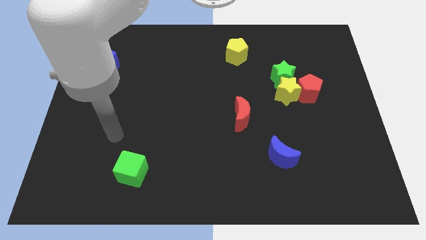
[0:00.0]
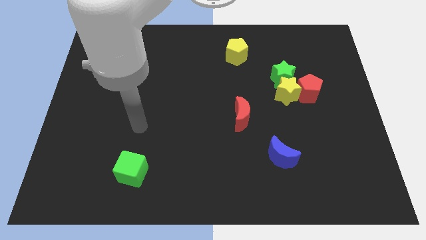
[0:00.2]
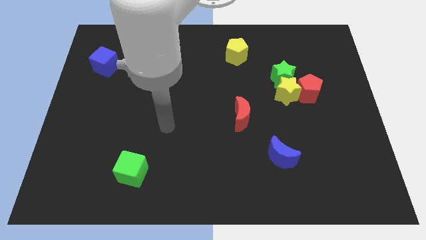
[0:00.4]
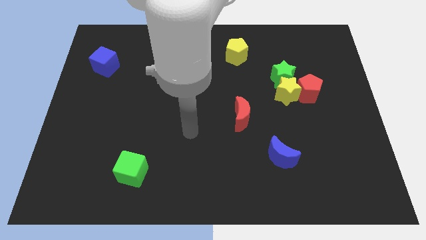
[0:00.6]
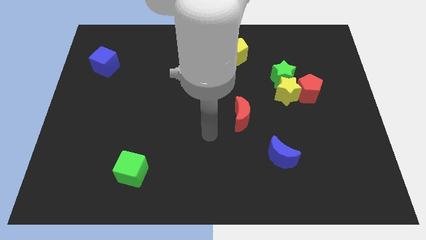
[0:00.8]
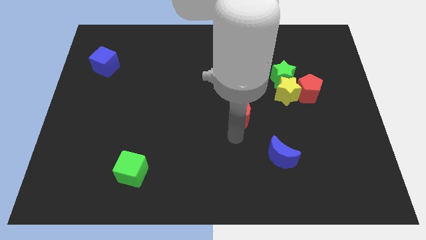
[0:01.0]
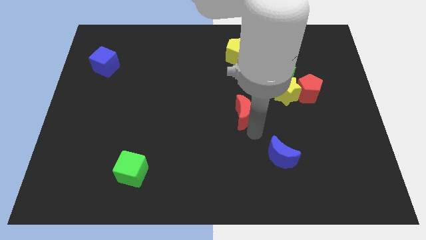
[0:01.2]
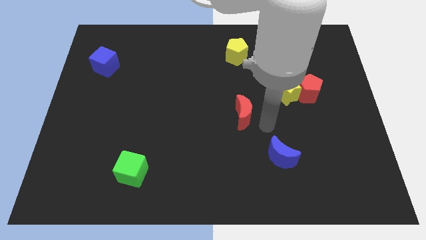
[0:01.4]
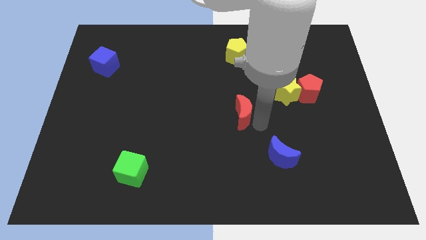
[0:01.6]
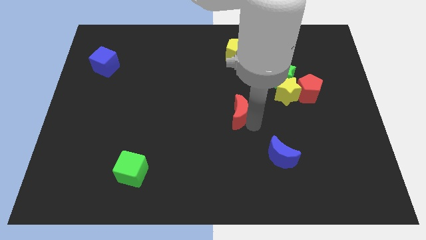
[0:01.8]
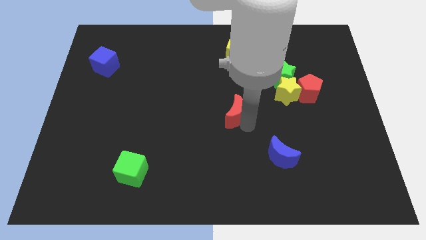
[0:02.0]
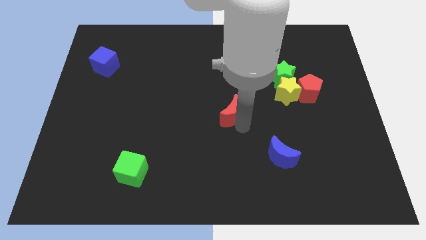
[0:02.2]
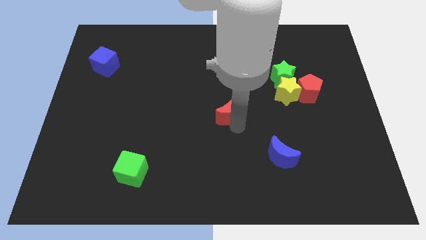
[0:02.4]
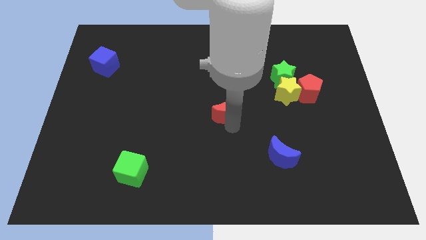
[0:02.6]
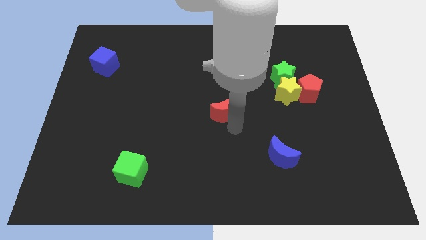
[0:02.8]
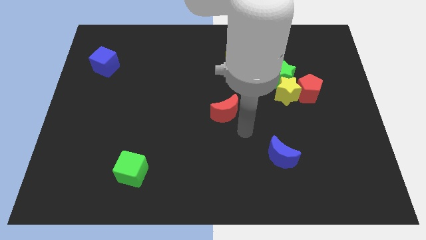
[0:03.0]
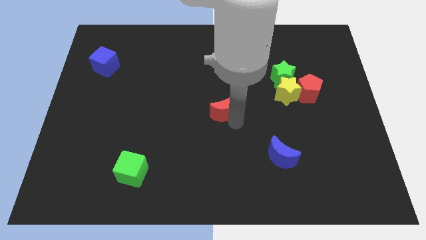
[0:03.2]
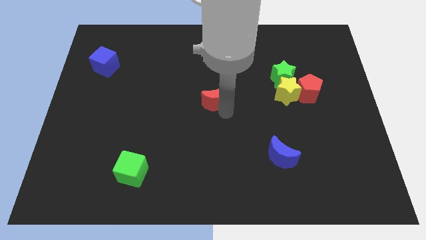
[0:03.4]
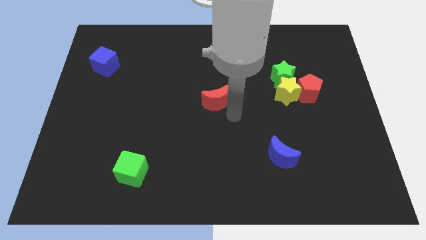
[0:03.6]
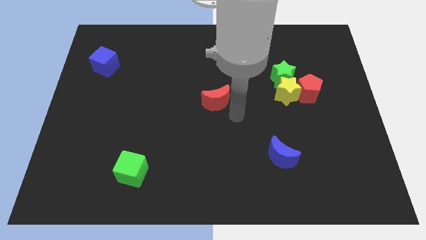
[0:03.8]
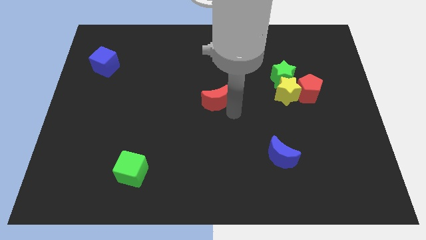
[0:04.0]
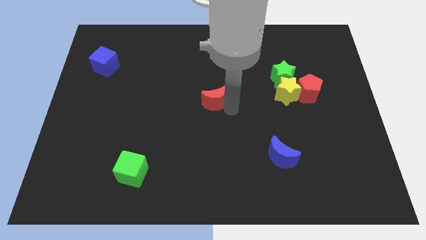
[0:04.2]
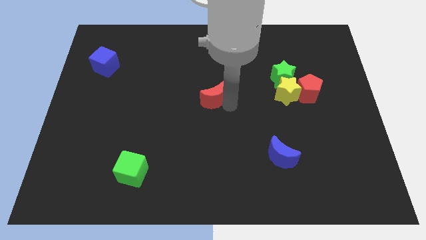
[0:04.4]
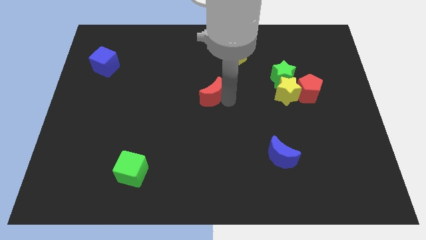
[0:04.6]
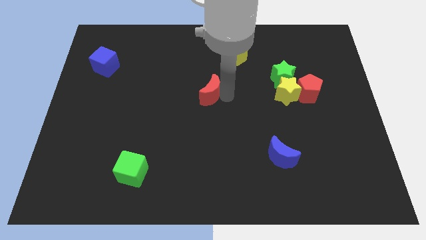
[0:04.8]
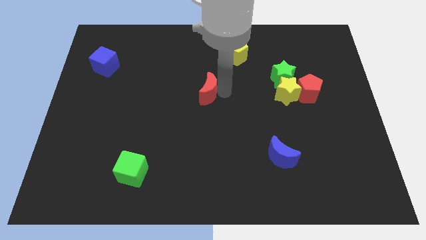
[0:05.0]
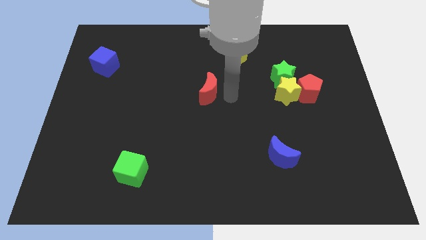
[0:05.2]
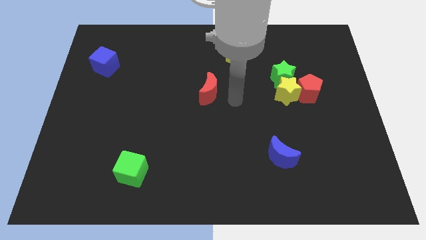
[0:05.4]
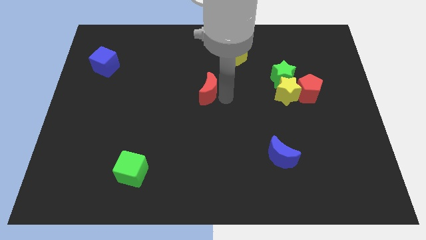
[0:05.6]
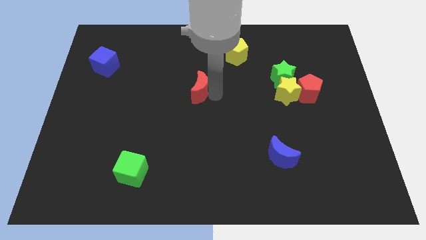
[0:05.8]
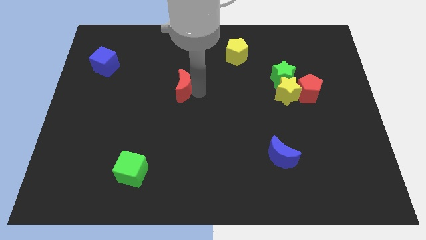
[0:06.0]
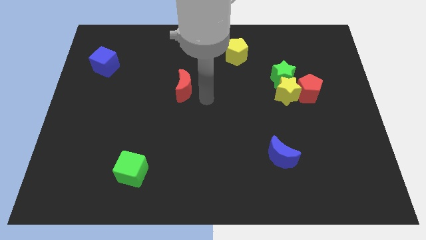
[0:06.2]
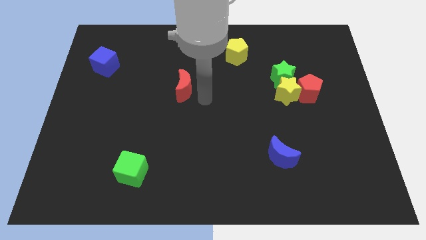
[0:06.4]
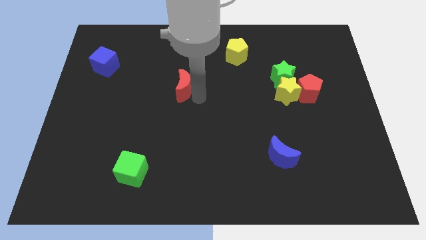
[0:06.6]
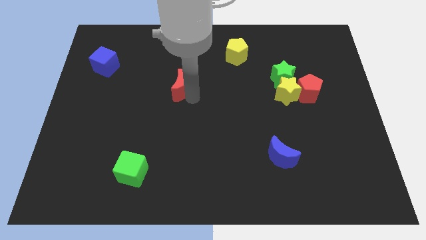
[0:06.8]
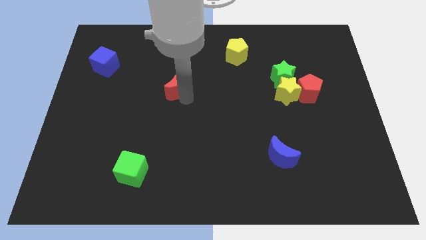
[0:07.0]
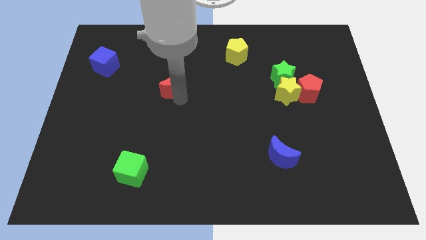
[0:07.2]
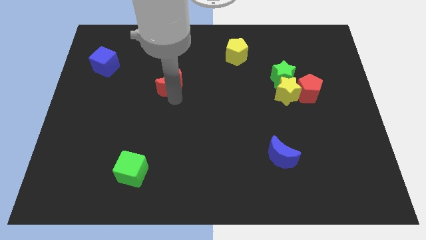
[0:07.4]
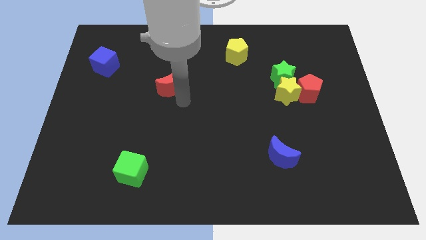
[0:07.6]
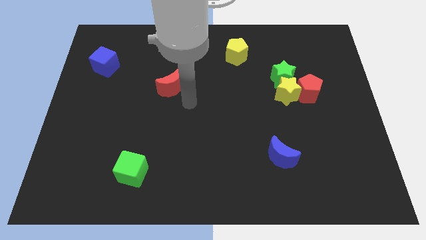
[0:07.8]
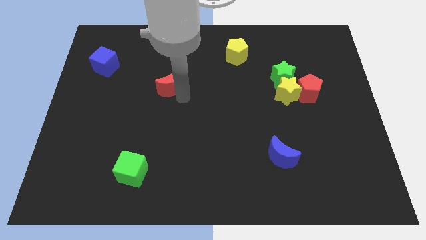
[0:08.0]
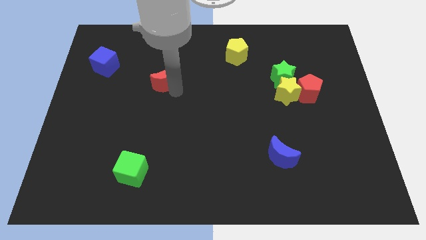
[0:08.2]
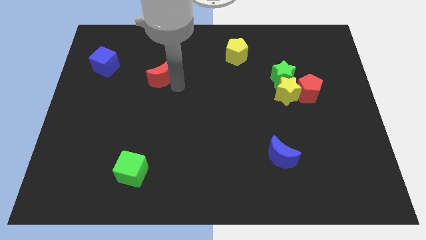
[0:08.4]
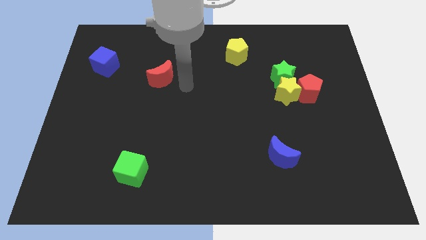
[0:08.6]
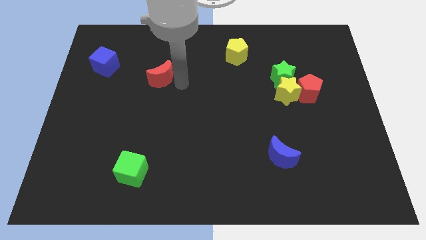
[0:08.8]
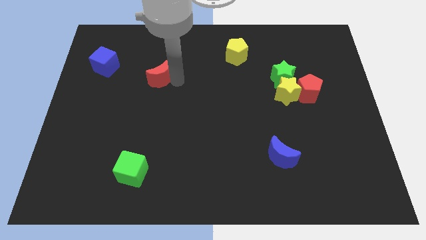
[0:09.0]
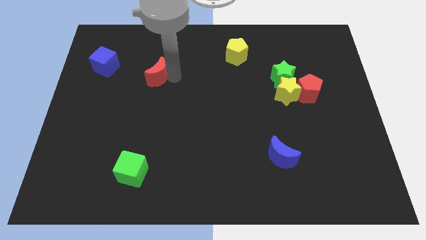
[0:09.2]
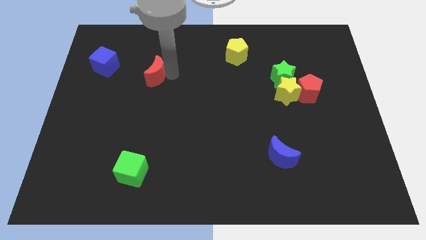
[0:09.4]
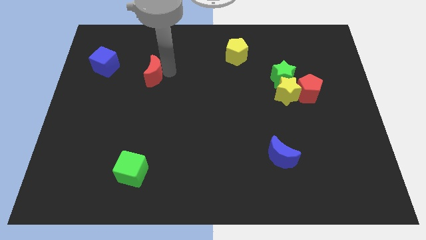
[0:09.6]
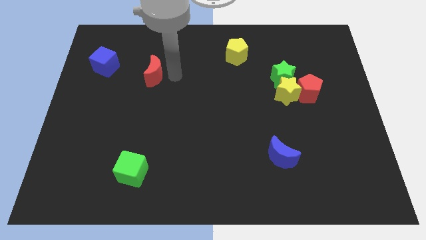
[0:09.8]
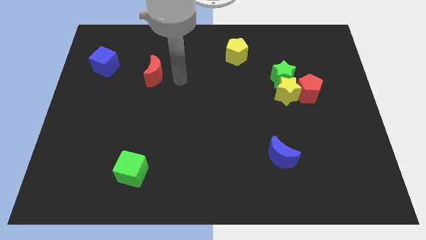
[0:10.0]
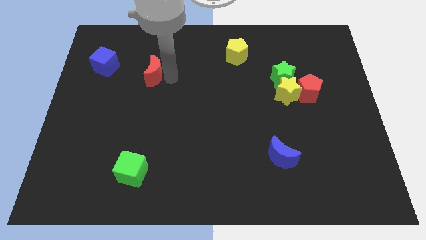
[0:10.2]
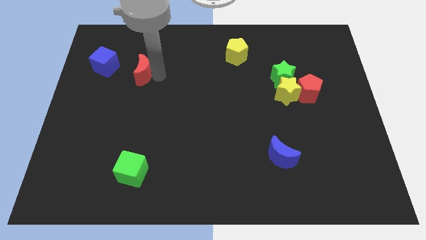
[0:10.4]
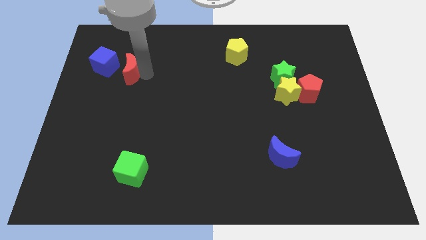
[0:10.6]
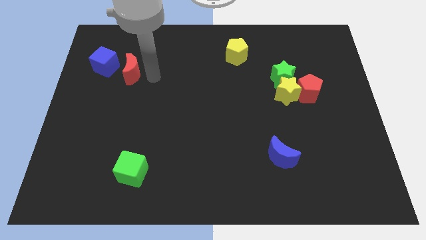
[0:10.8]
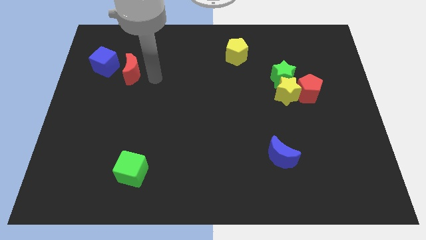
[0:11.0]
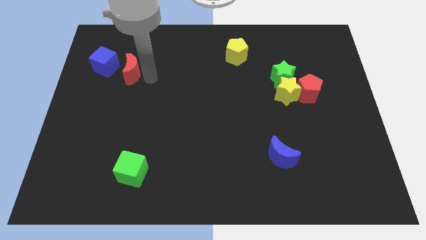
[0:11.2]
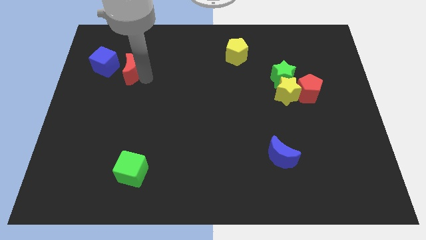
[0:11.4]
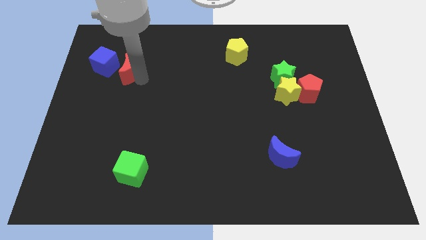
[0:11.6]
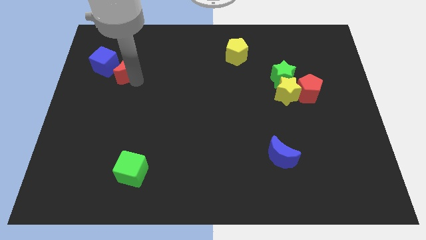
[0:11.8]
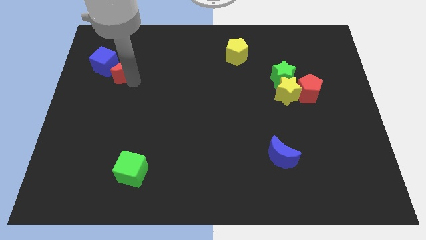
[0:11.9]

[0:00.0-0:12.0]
put the red moon next to the blue cube

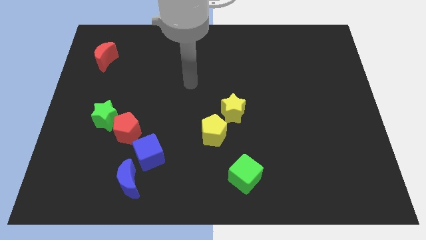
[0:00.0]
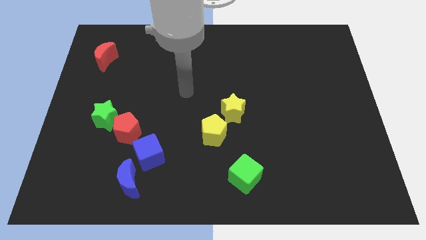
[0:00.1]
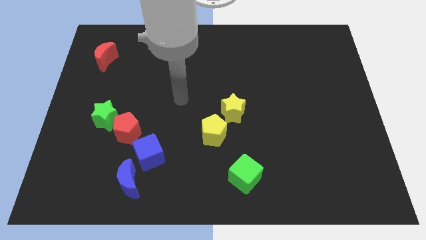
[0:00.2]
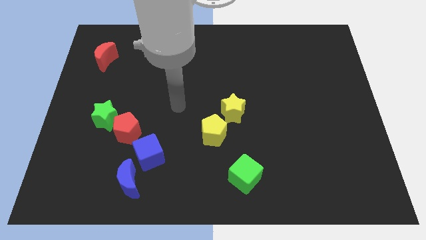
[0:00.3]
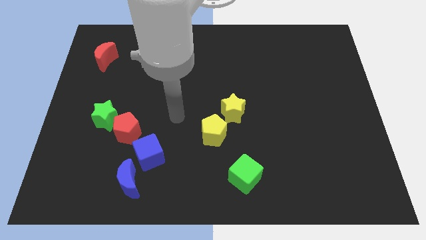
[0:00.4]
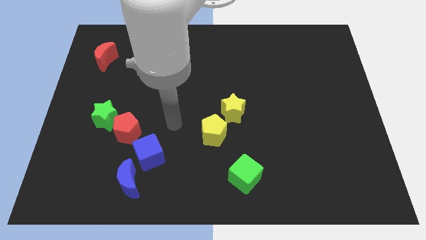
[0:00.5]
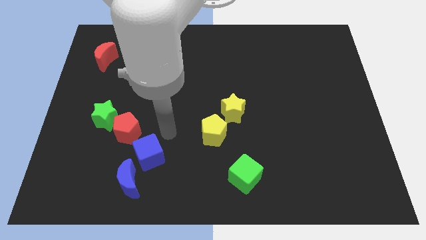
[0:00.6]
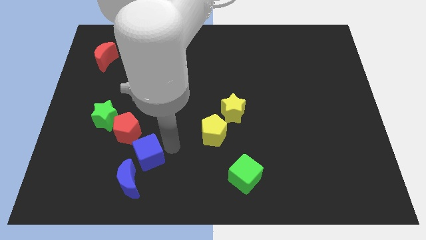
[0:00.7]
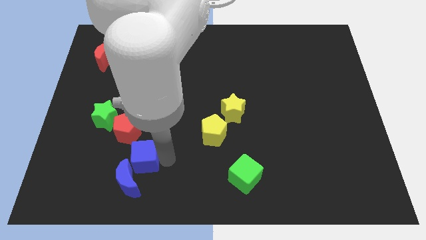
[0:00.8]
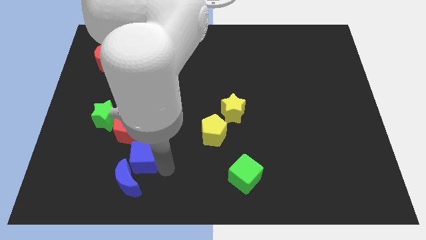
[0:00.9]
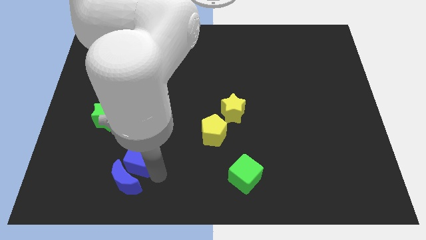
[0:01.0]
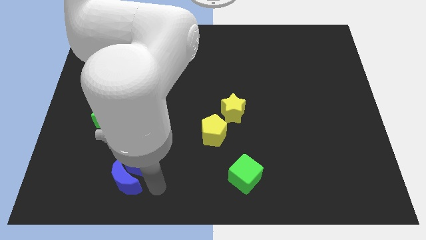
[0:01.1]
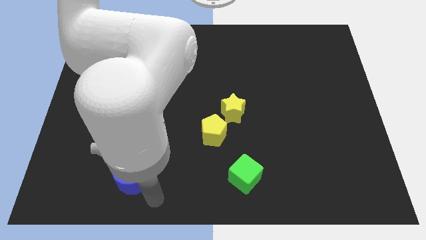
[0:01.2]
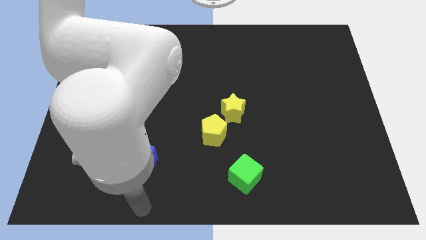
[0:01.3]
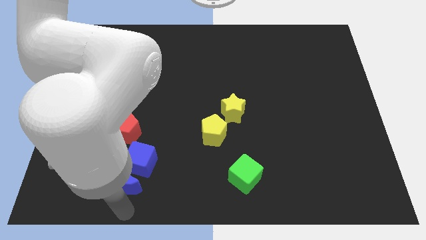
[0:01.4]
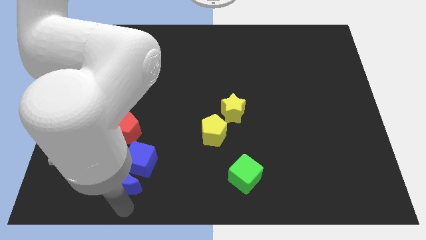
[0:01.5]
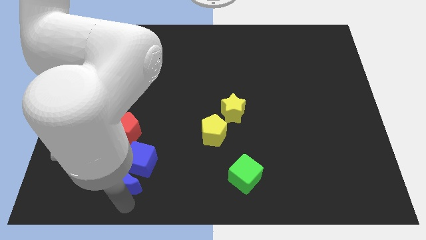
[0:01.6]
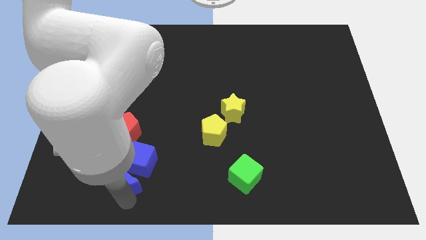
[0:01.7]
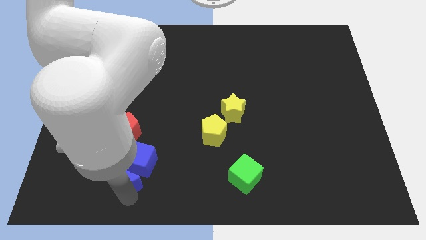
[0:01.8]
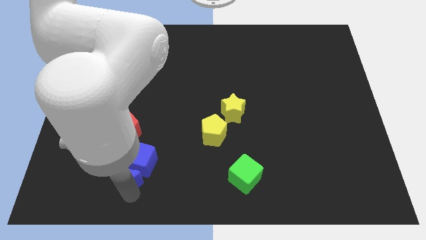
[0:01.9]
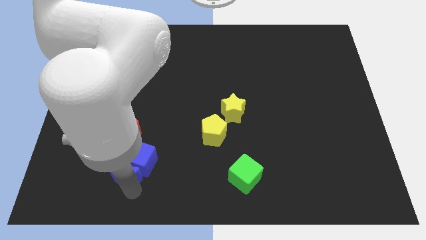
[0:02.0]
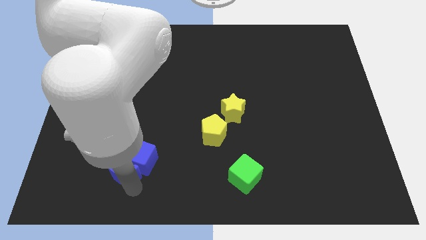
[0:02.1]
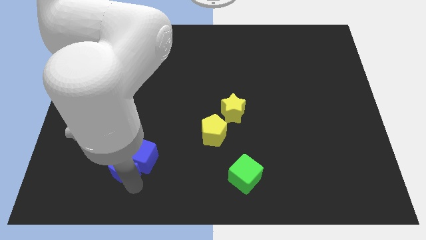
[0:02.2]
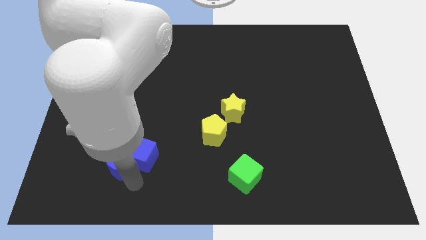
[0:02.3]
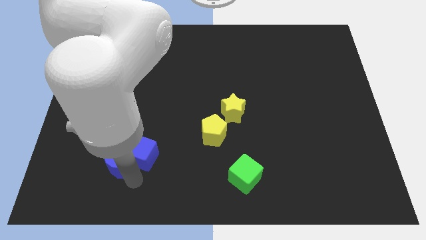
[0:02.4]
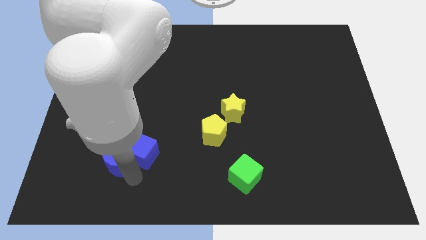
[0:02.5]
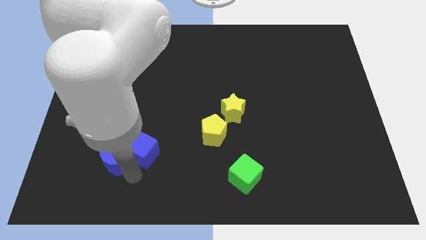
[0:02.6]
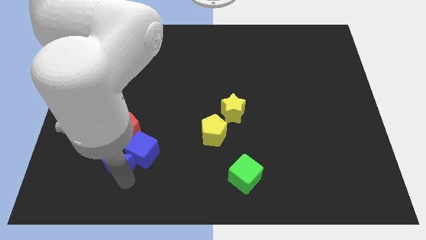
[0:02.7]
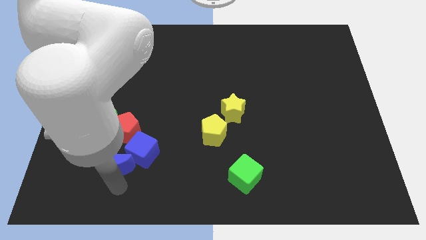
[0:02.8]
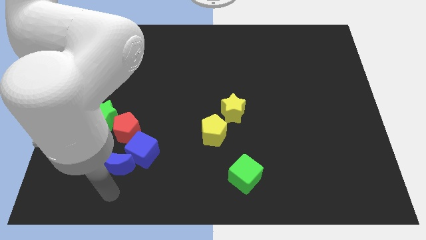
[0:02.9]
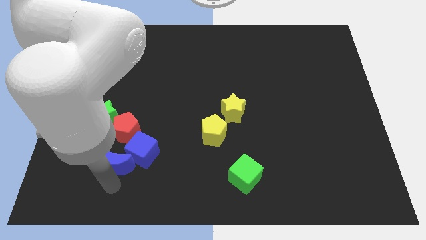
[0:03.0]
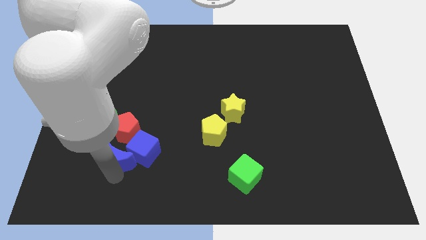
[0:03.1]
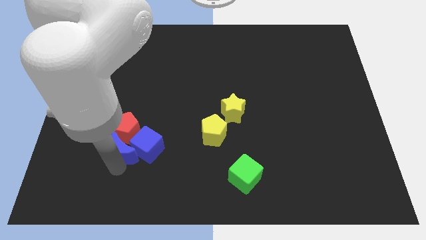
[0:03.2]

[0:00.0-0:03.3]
move the blue moon to the red pentagon
